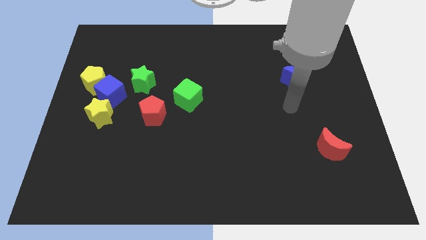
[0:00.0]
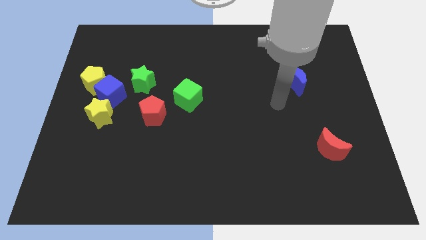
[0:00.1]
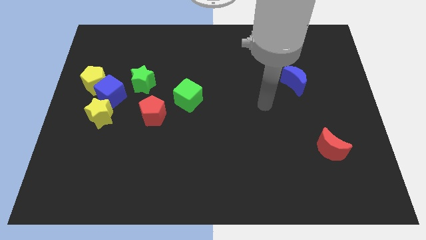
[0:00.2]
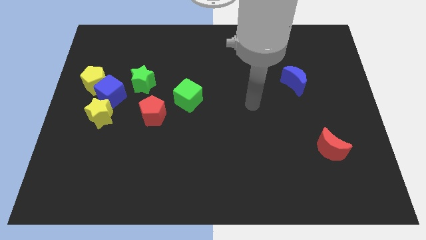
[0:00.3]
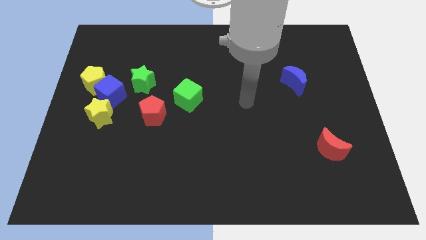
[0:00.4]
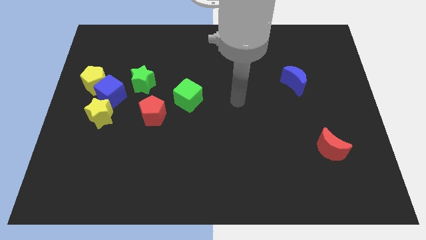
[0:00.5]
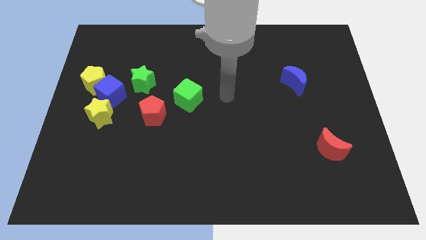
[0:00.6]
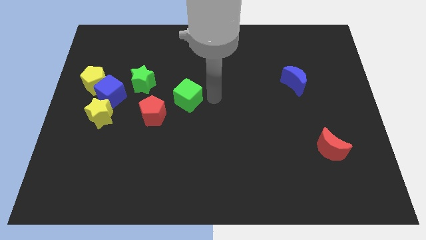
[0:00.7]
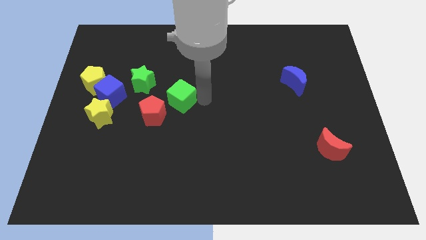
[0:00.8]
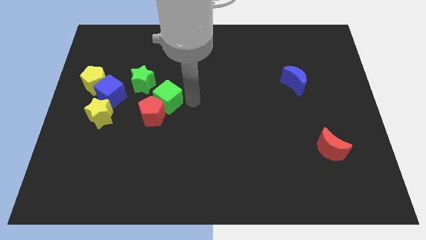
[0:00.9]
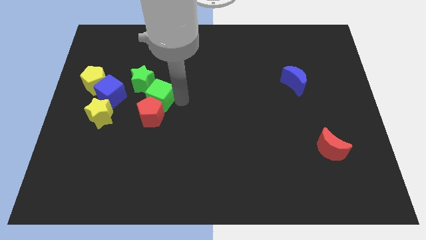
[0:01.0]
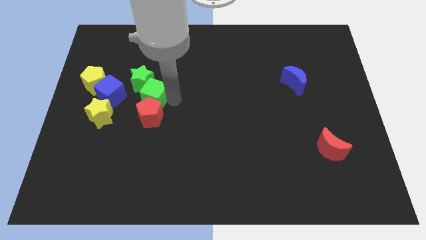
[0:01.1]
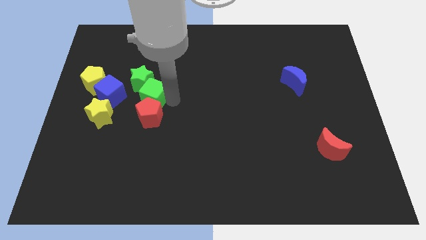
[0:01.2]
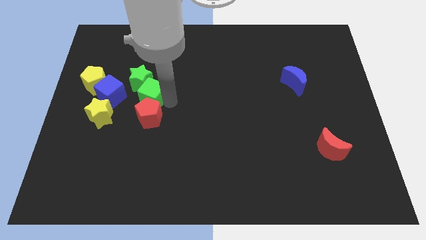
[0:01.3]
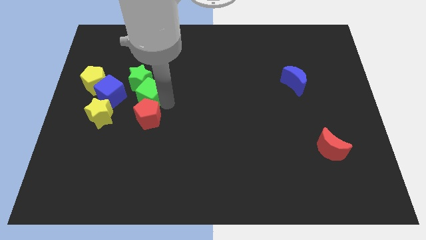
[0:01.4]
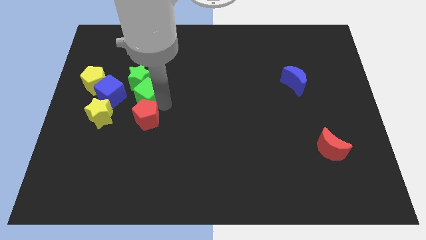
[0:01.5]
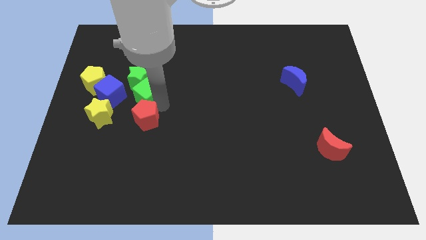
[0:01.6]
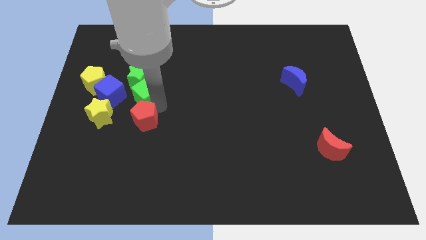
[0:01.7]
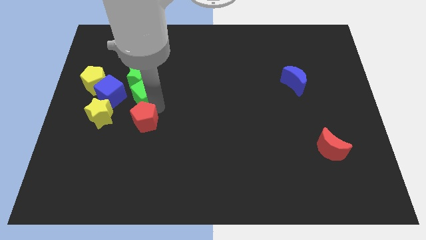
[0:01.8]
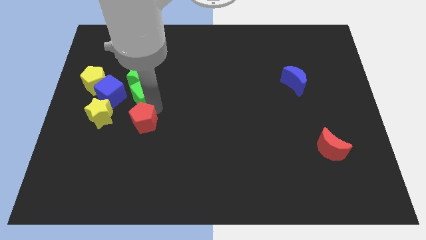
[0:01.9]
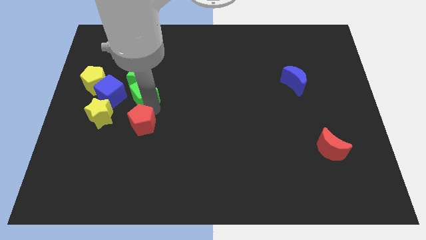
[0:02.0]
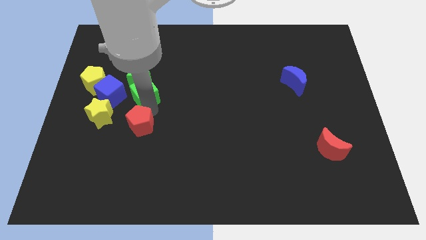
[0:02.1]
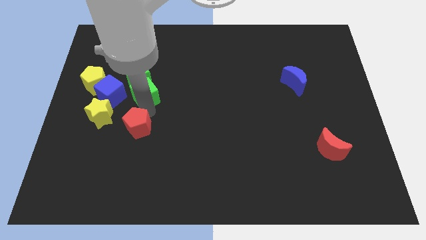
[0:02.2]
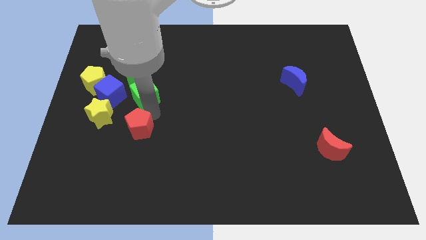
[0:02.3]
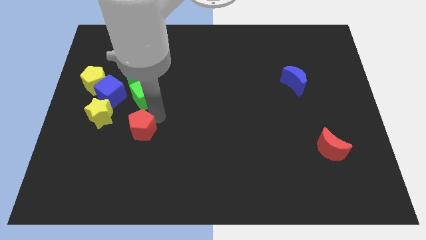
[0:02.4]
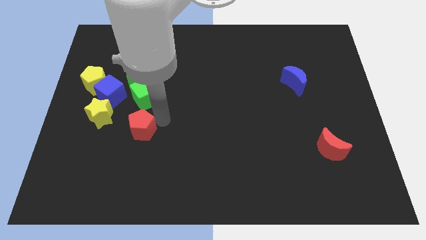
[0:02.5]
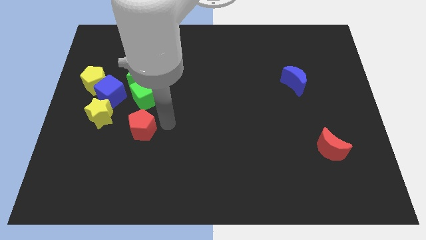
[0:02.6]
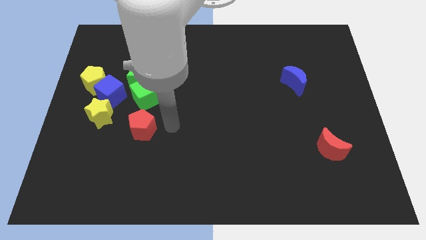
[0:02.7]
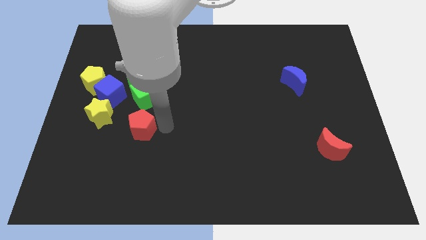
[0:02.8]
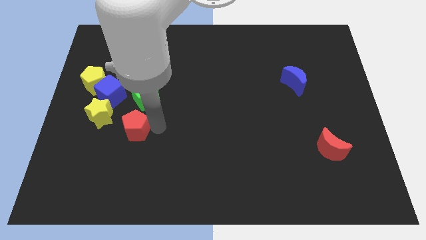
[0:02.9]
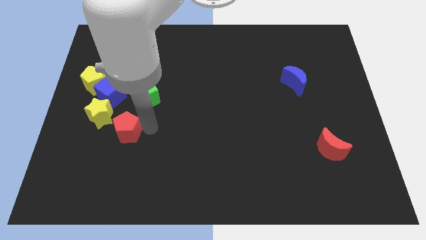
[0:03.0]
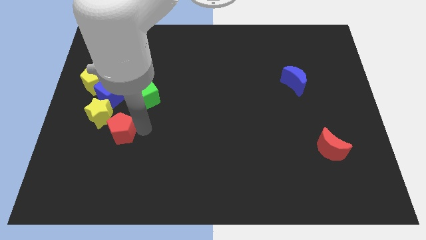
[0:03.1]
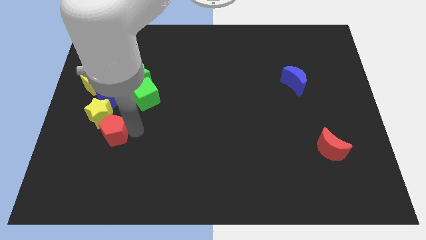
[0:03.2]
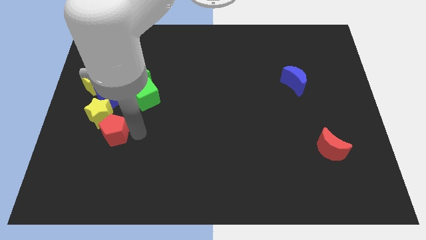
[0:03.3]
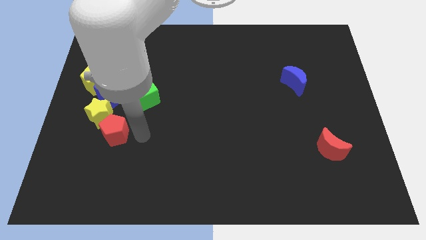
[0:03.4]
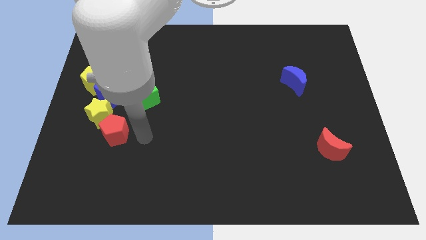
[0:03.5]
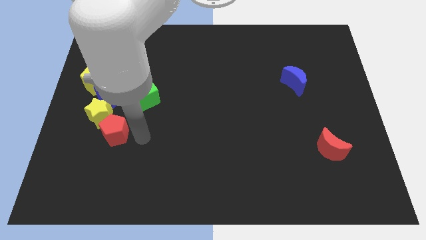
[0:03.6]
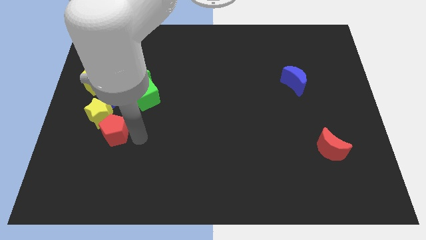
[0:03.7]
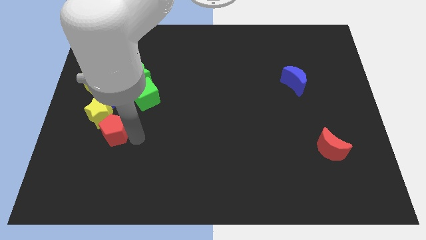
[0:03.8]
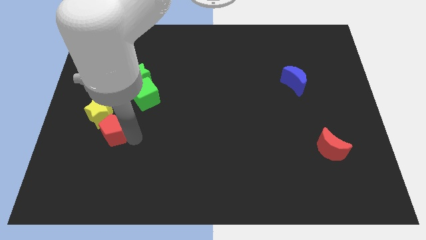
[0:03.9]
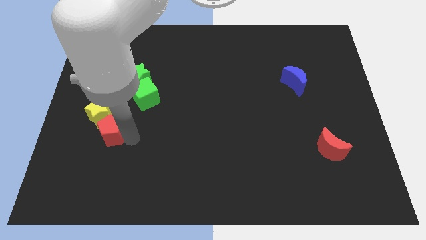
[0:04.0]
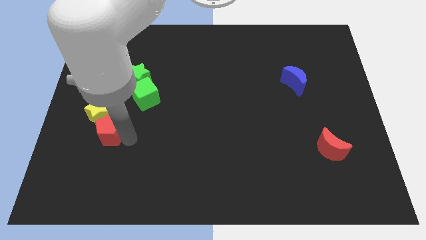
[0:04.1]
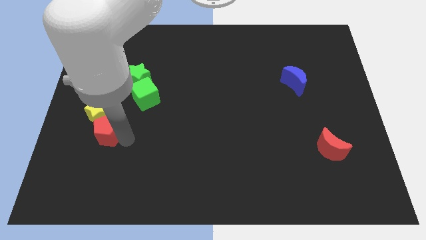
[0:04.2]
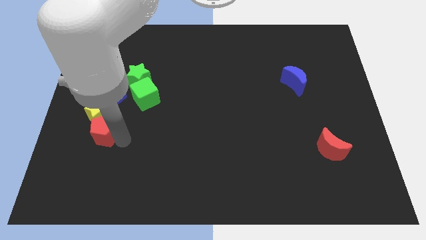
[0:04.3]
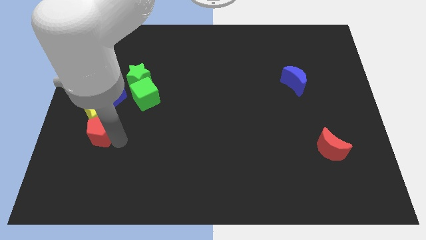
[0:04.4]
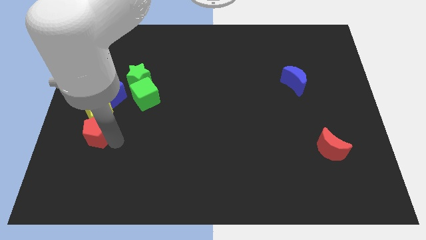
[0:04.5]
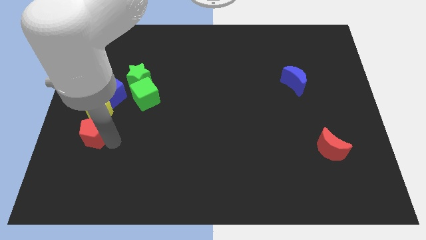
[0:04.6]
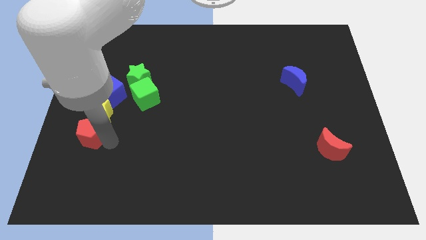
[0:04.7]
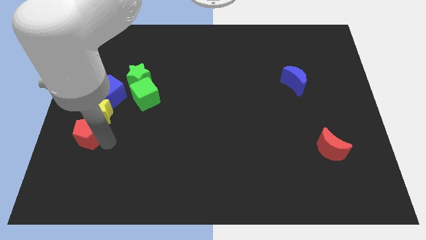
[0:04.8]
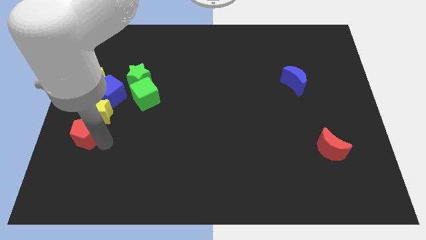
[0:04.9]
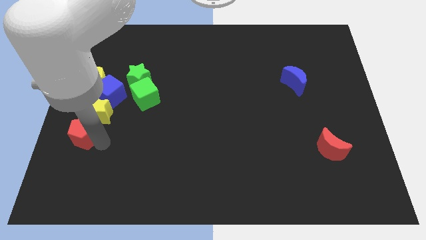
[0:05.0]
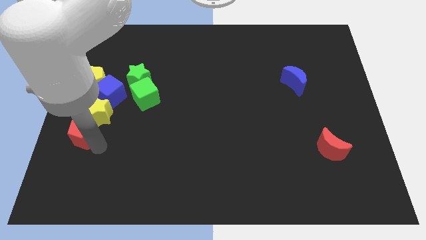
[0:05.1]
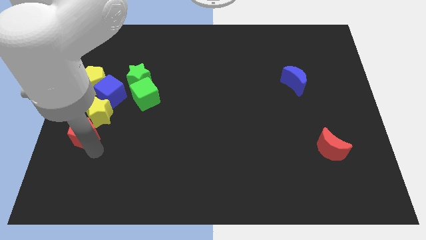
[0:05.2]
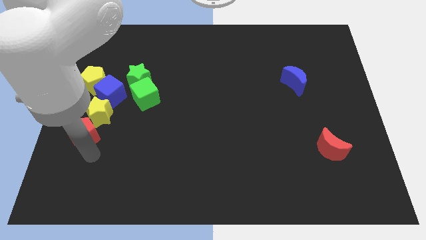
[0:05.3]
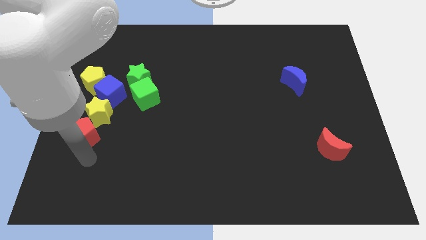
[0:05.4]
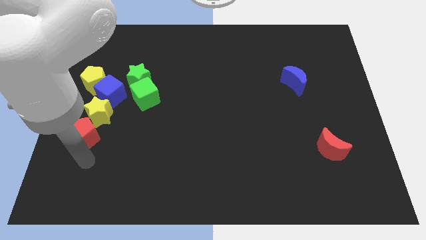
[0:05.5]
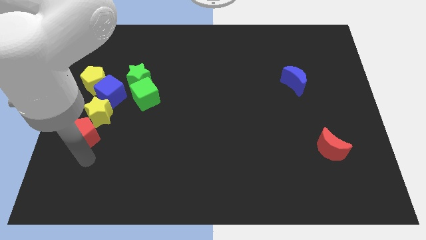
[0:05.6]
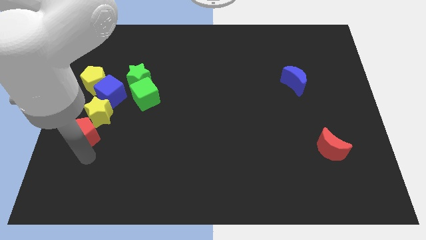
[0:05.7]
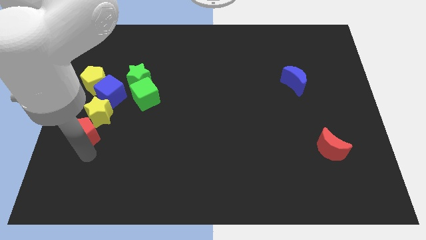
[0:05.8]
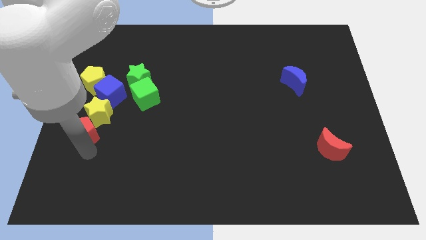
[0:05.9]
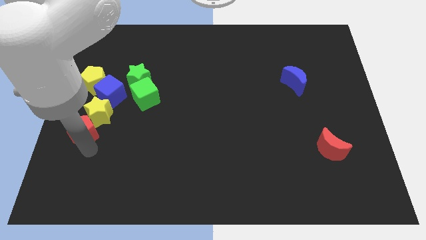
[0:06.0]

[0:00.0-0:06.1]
put the red pentagon to the center left

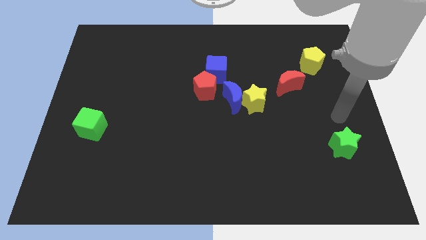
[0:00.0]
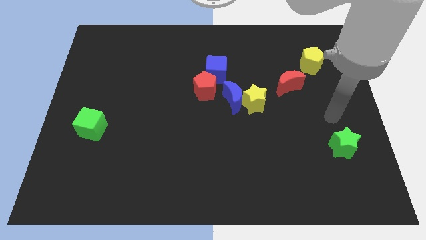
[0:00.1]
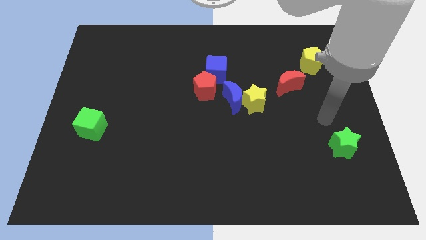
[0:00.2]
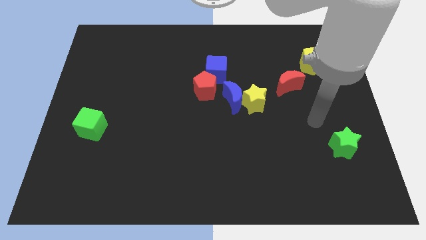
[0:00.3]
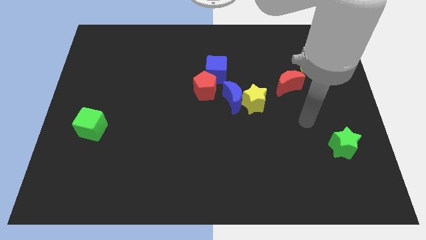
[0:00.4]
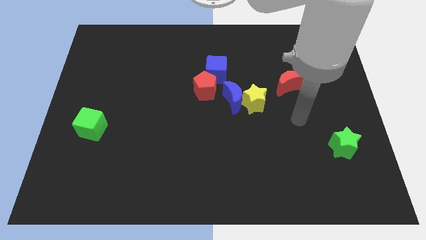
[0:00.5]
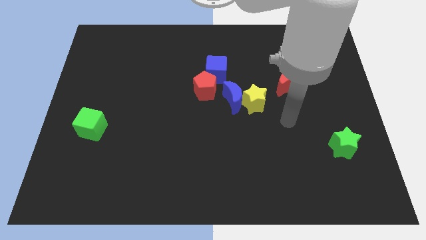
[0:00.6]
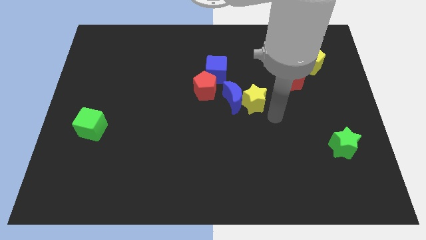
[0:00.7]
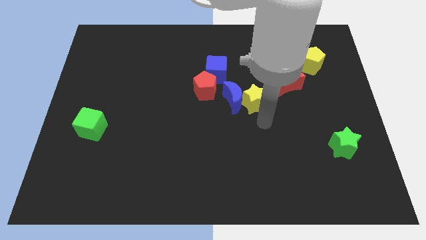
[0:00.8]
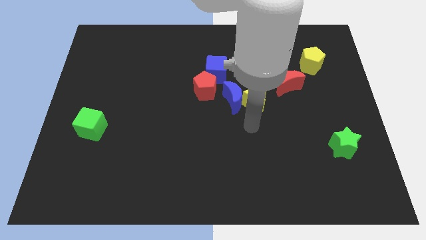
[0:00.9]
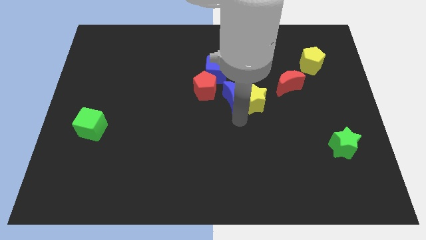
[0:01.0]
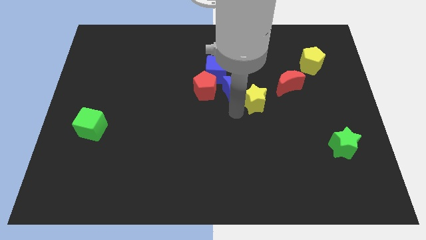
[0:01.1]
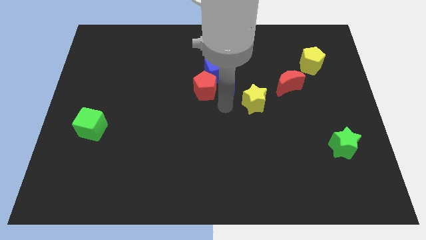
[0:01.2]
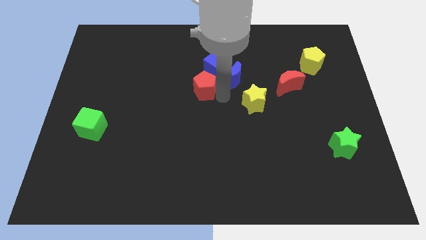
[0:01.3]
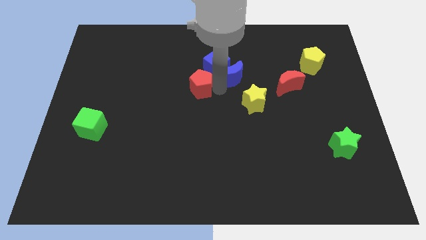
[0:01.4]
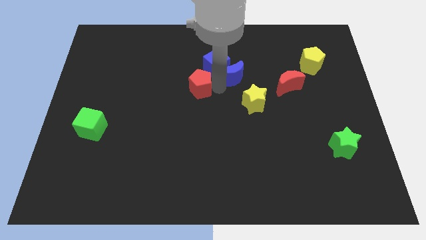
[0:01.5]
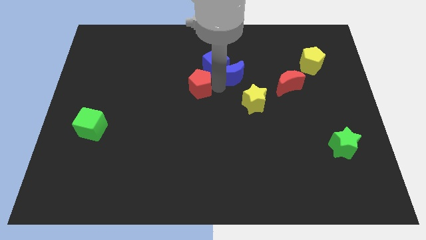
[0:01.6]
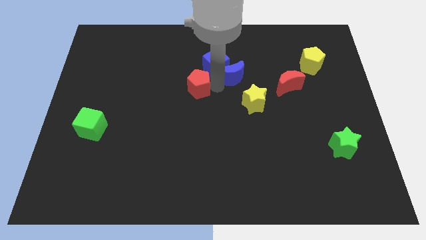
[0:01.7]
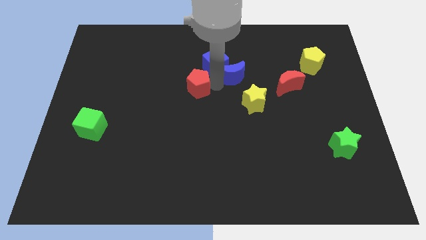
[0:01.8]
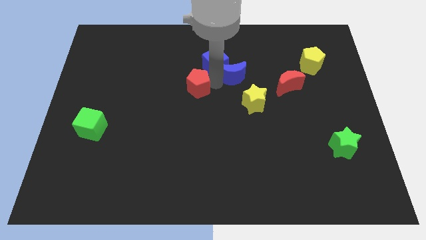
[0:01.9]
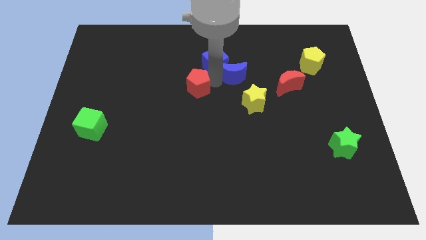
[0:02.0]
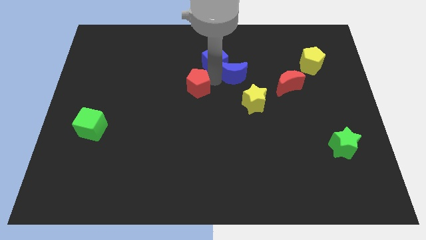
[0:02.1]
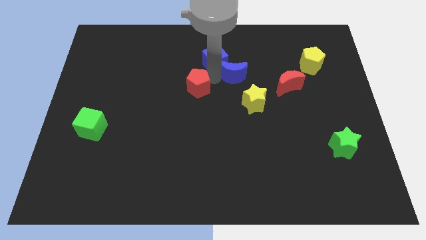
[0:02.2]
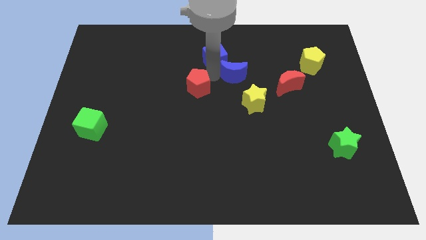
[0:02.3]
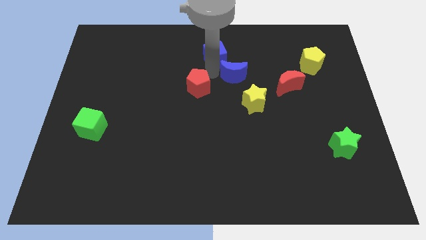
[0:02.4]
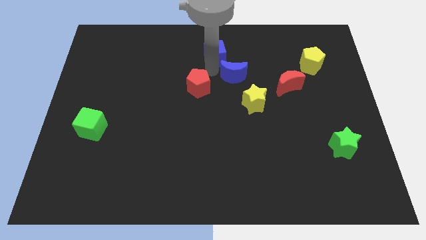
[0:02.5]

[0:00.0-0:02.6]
move the blue cube to the top side
